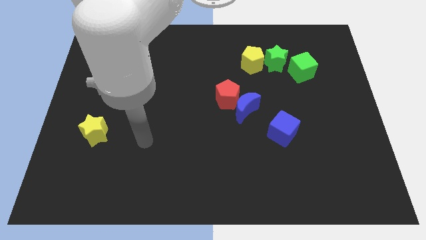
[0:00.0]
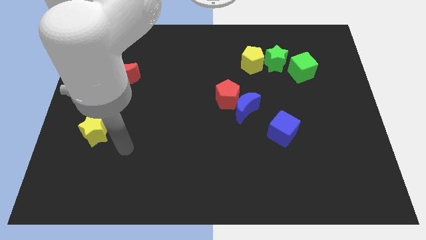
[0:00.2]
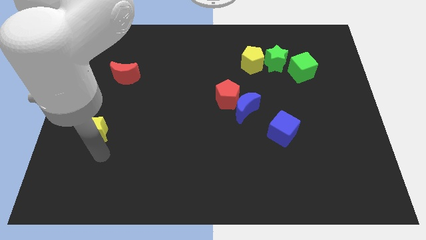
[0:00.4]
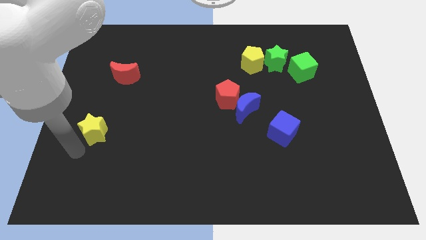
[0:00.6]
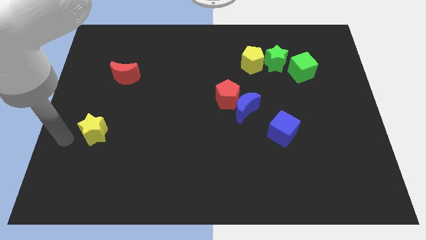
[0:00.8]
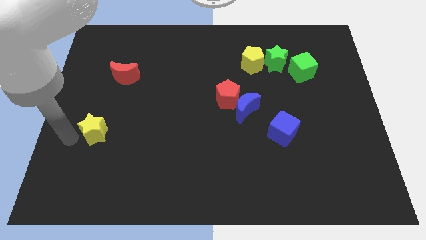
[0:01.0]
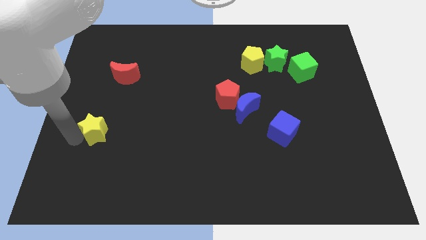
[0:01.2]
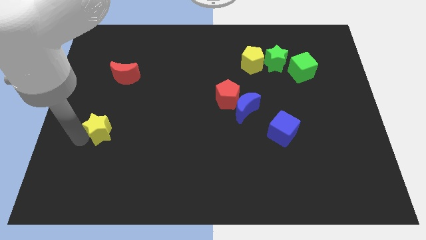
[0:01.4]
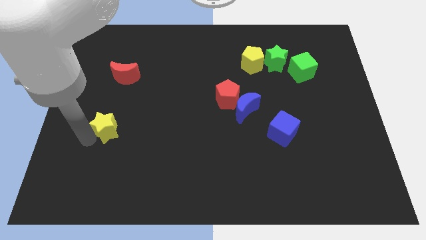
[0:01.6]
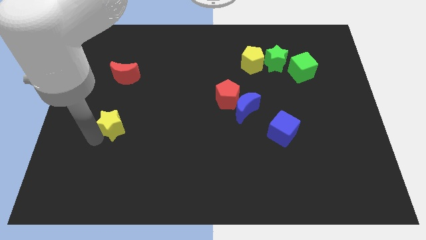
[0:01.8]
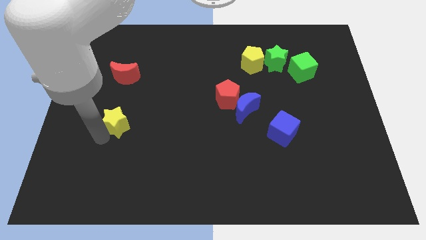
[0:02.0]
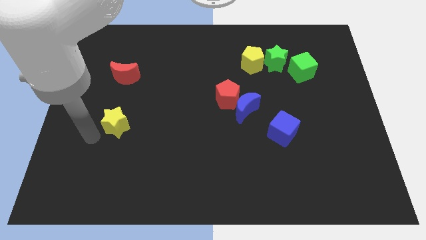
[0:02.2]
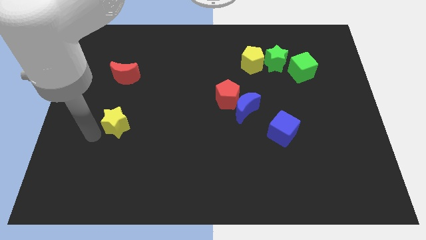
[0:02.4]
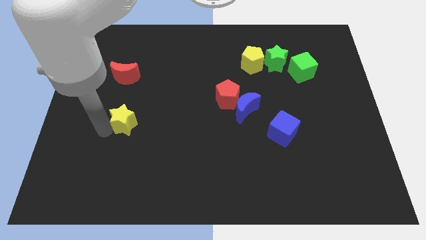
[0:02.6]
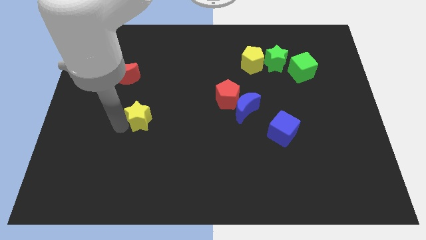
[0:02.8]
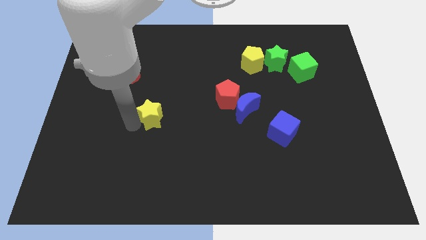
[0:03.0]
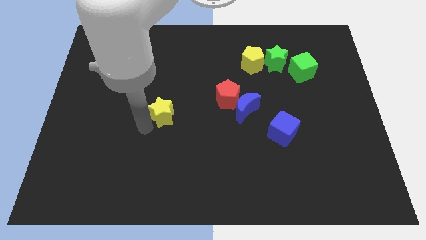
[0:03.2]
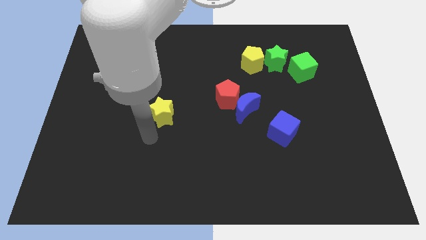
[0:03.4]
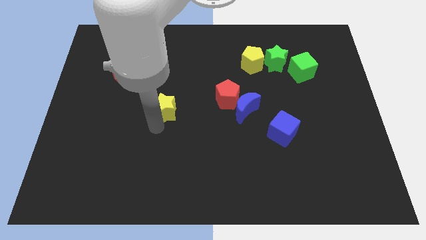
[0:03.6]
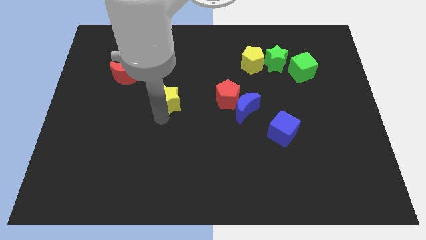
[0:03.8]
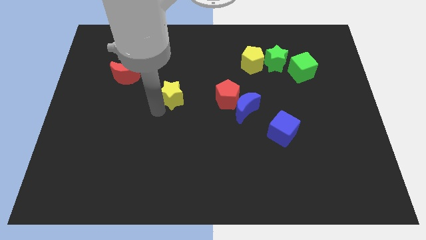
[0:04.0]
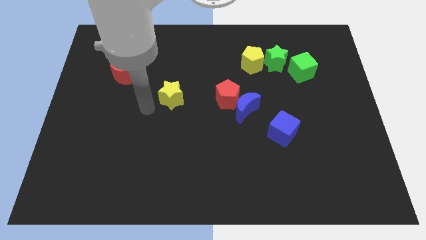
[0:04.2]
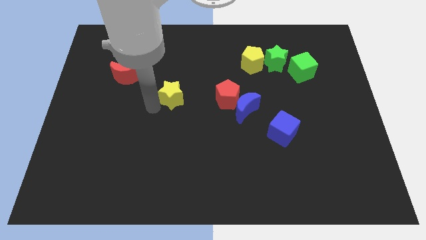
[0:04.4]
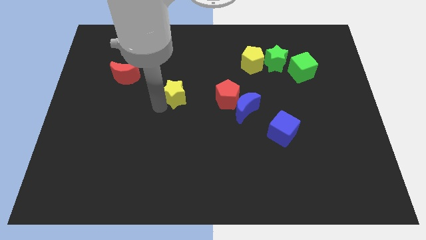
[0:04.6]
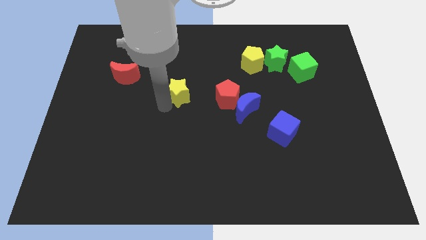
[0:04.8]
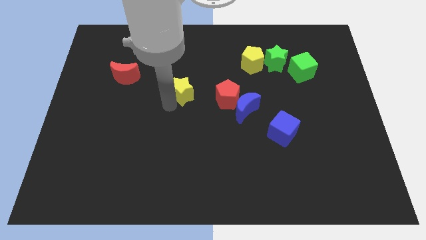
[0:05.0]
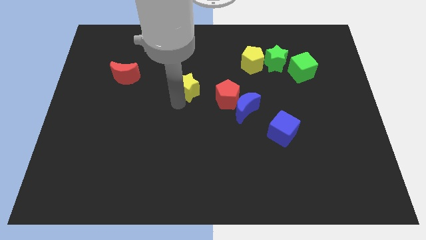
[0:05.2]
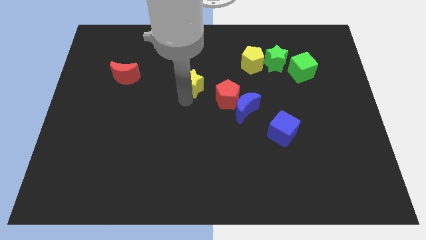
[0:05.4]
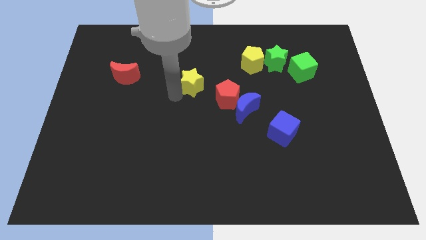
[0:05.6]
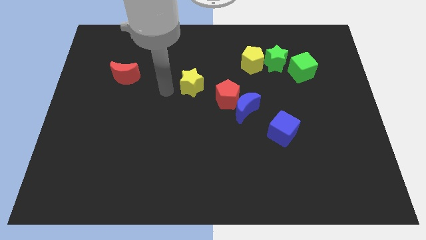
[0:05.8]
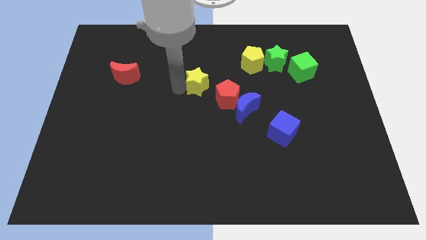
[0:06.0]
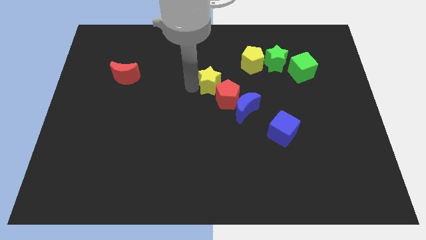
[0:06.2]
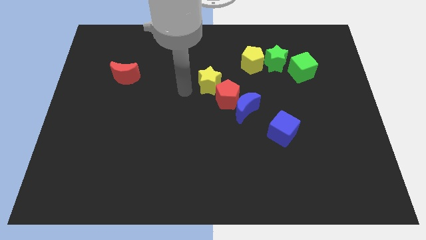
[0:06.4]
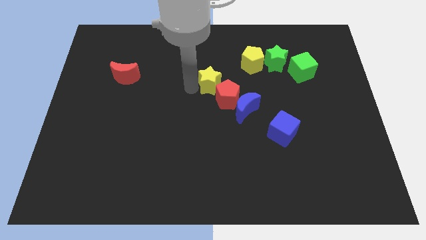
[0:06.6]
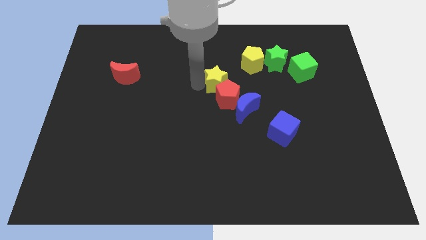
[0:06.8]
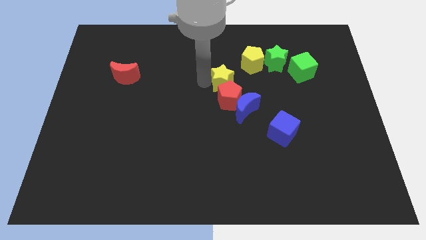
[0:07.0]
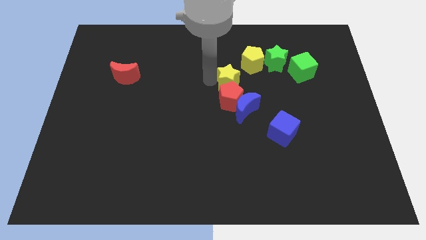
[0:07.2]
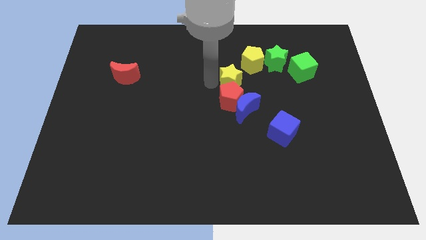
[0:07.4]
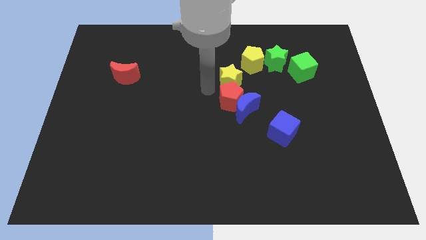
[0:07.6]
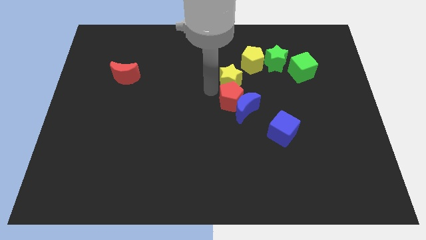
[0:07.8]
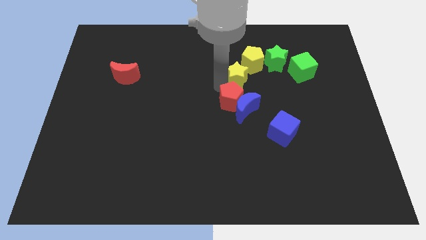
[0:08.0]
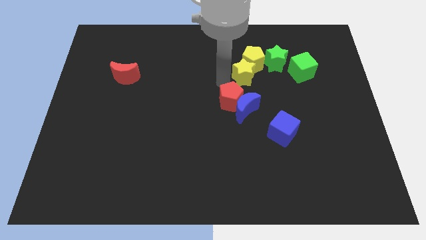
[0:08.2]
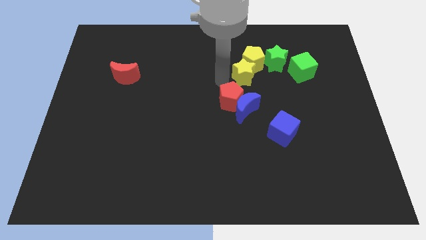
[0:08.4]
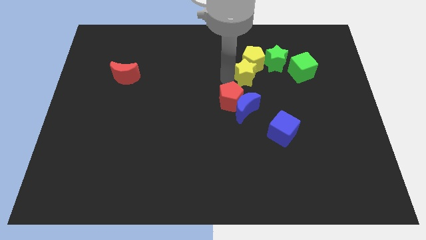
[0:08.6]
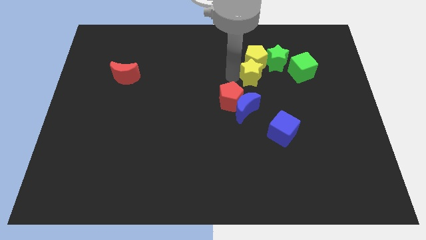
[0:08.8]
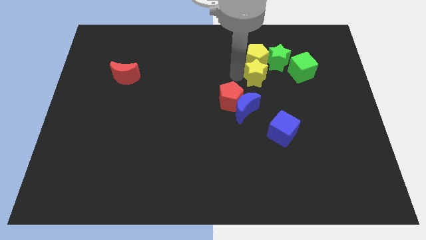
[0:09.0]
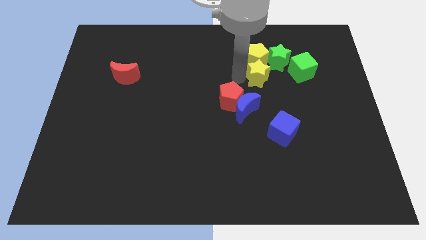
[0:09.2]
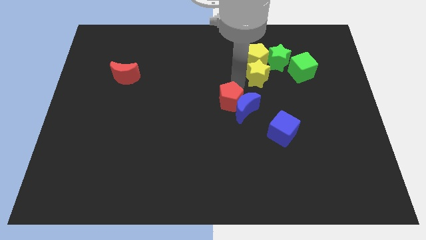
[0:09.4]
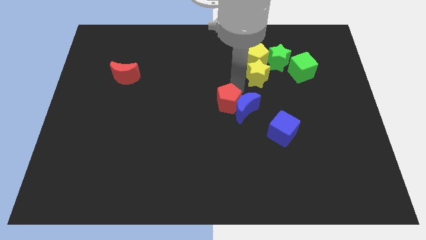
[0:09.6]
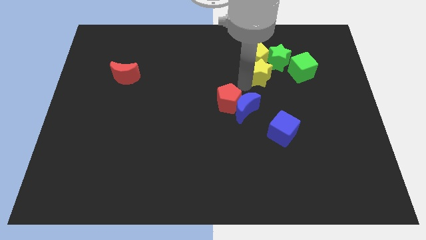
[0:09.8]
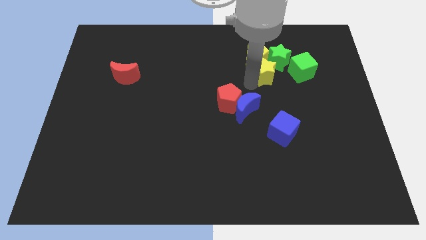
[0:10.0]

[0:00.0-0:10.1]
put the yellow star close to the green star

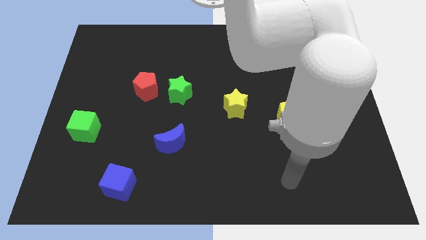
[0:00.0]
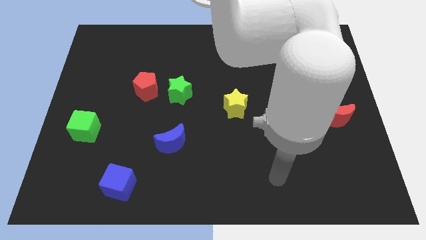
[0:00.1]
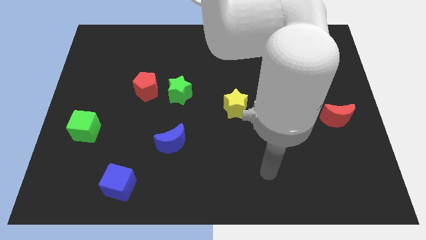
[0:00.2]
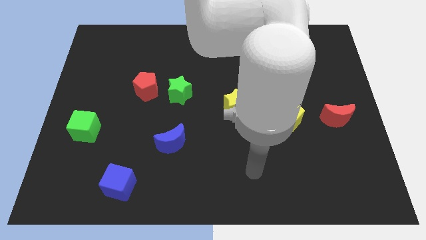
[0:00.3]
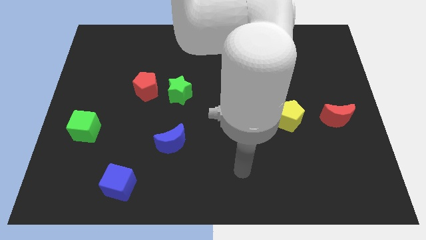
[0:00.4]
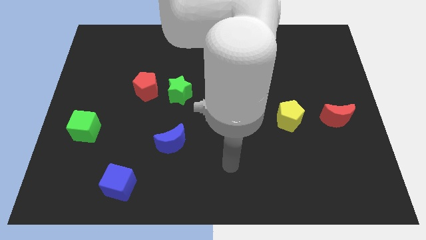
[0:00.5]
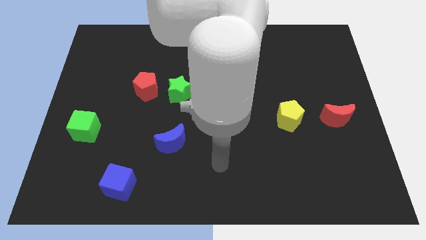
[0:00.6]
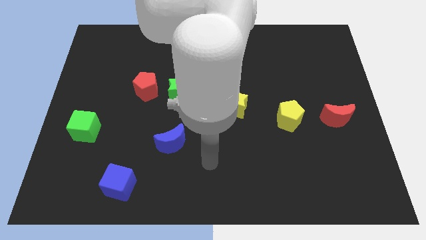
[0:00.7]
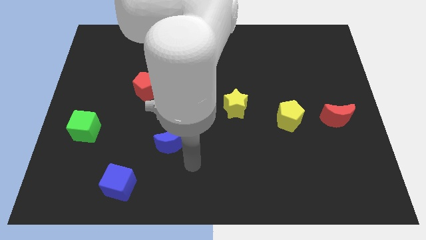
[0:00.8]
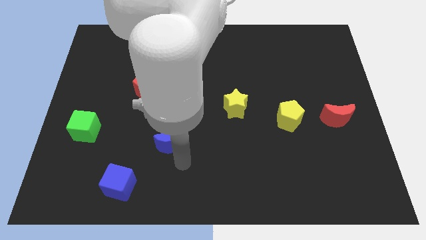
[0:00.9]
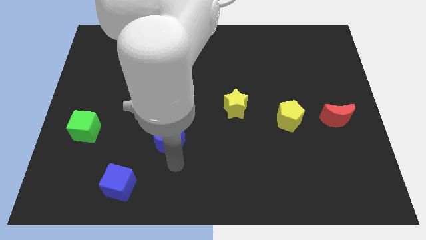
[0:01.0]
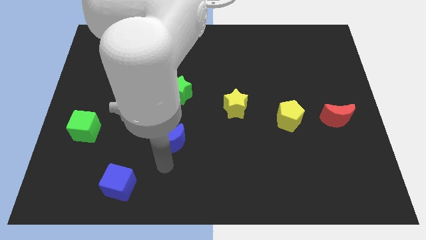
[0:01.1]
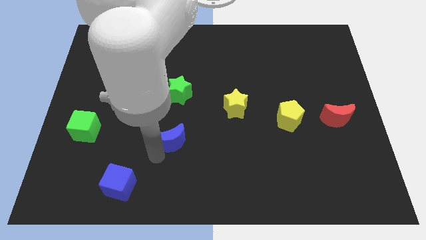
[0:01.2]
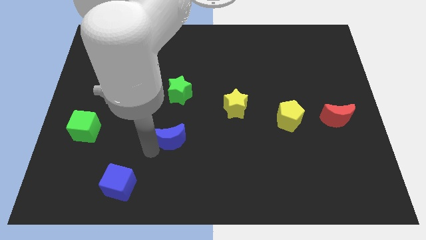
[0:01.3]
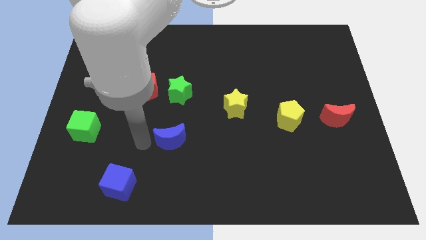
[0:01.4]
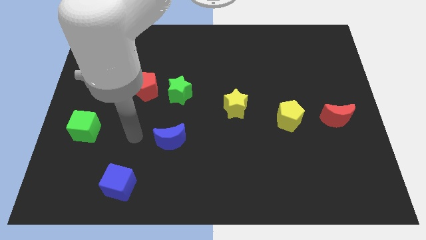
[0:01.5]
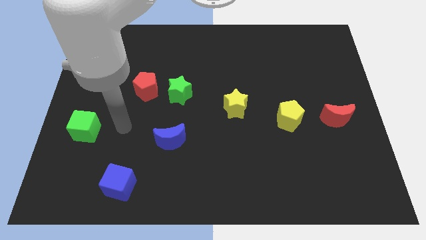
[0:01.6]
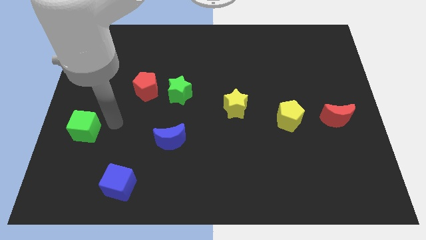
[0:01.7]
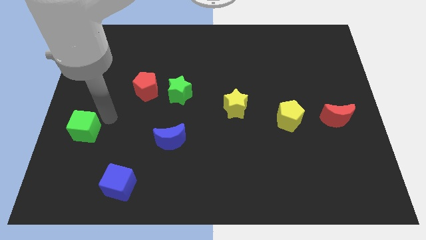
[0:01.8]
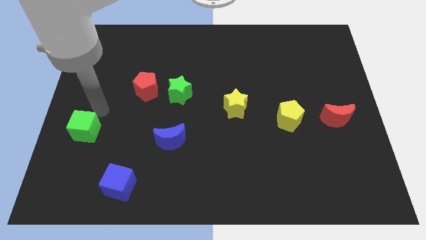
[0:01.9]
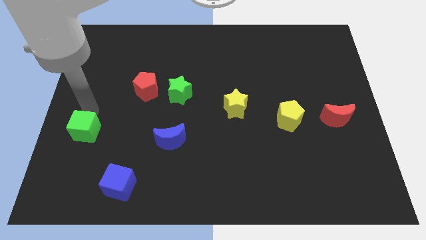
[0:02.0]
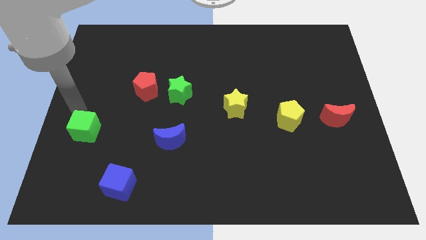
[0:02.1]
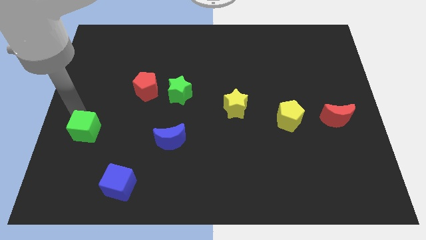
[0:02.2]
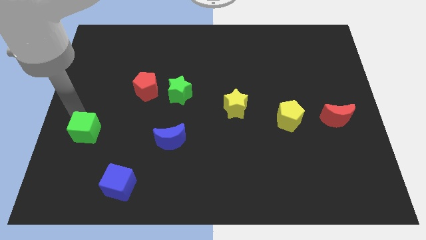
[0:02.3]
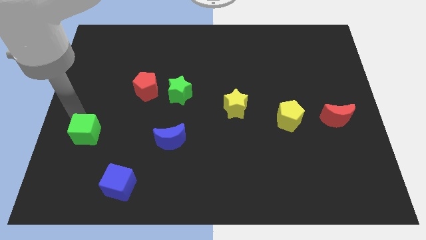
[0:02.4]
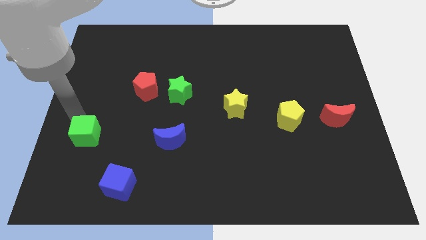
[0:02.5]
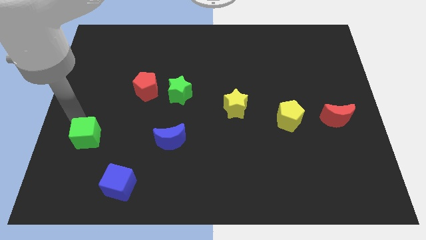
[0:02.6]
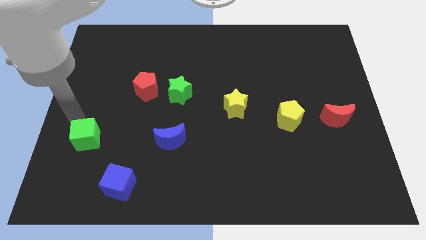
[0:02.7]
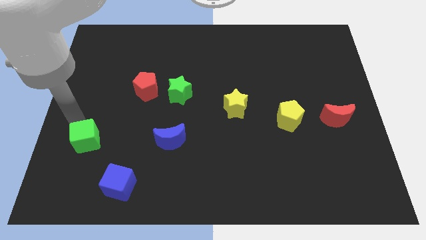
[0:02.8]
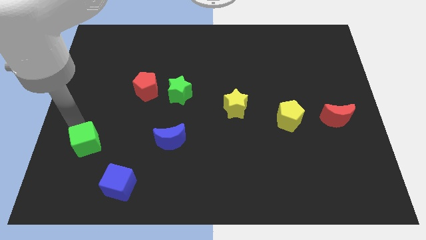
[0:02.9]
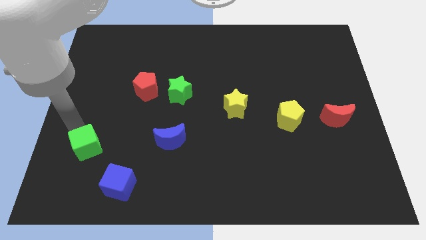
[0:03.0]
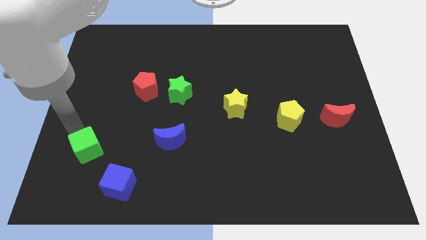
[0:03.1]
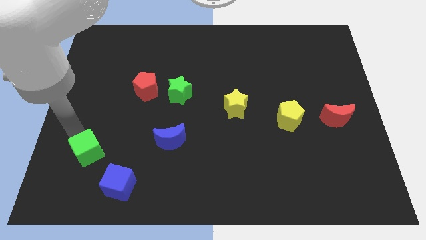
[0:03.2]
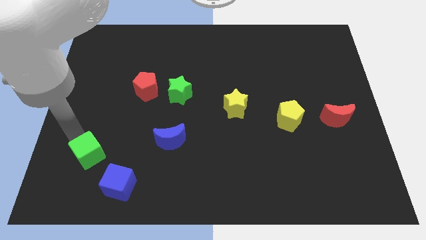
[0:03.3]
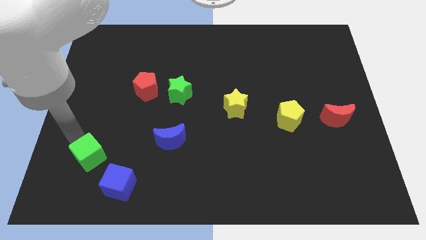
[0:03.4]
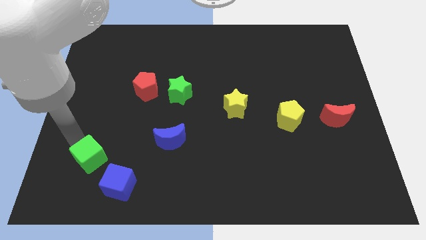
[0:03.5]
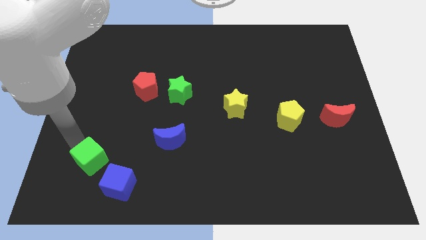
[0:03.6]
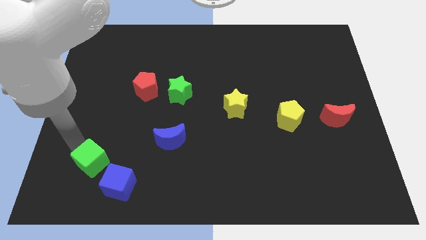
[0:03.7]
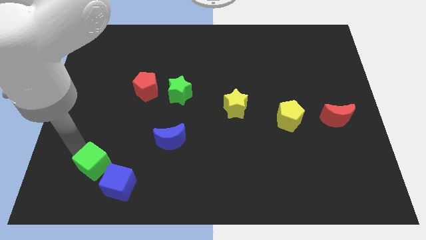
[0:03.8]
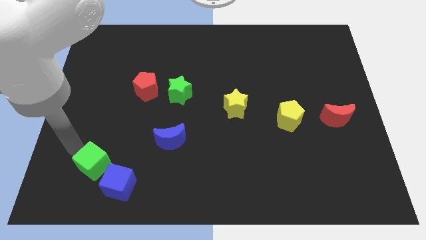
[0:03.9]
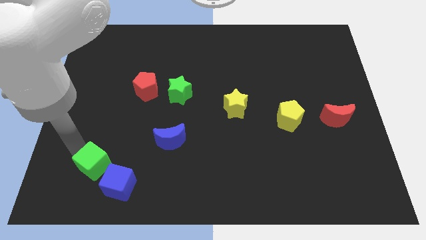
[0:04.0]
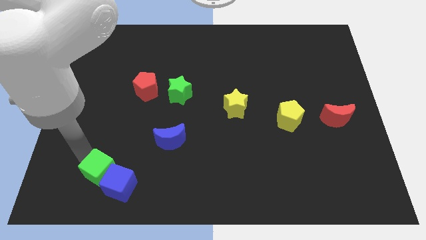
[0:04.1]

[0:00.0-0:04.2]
move the green cube towards the blue cube
